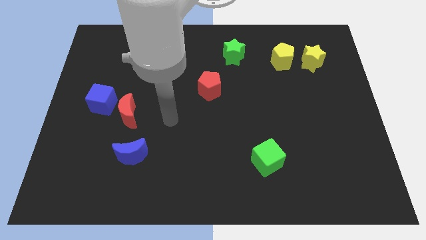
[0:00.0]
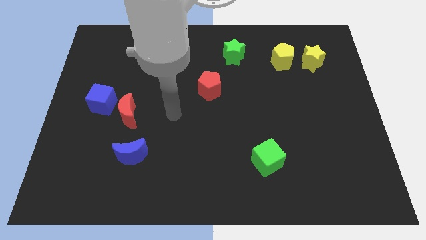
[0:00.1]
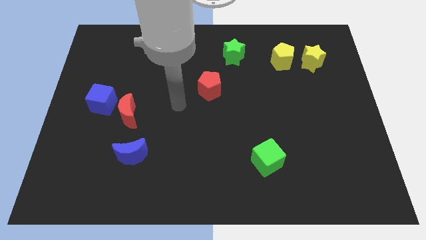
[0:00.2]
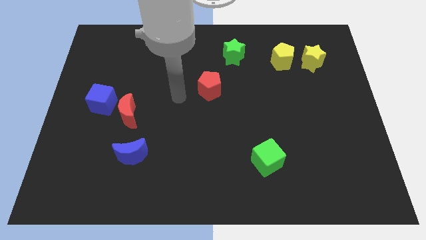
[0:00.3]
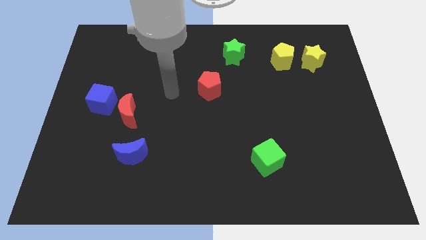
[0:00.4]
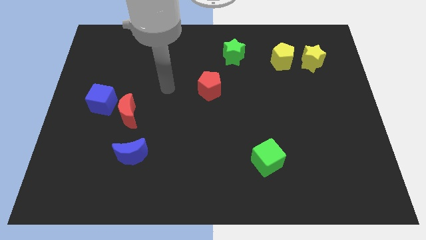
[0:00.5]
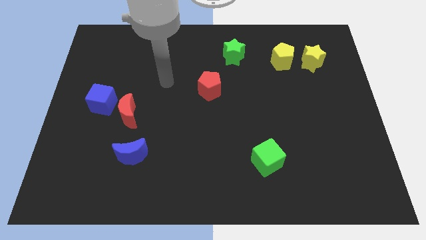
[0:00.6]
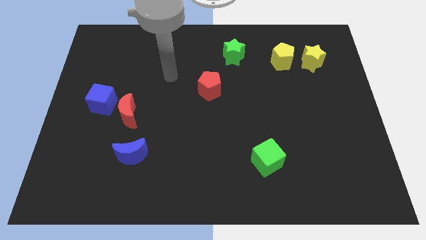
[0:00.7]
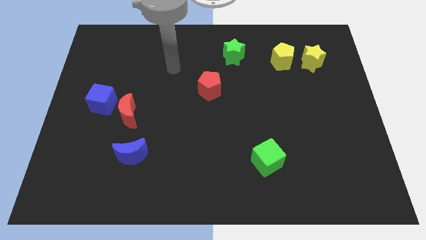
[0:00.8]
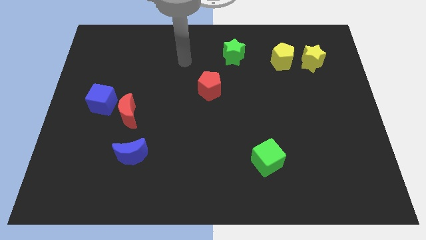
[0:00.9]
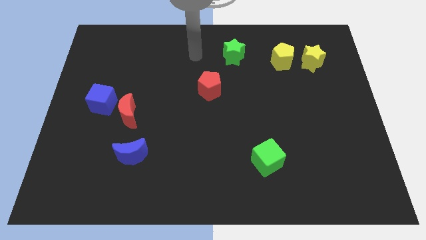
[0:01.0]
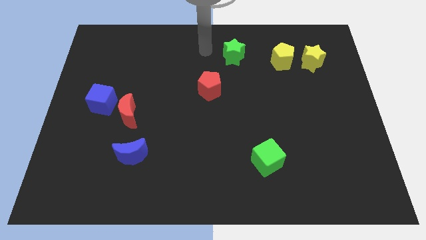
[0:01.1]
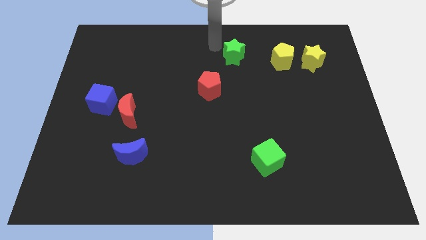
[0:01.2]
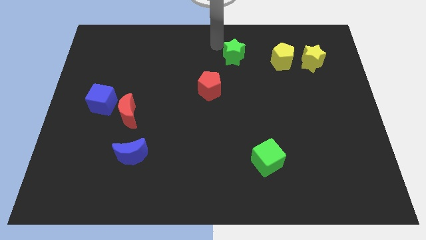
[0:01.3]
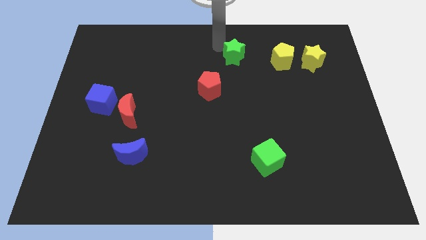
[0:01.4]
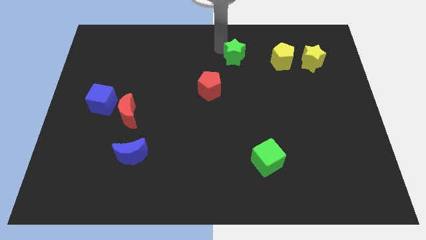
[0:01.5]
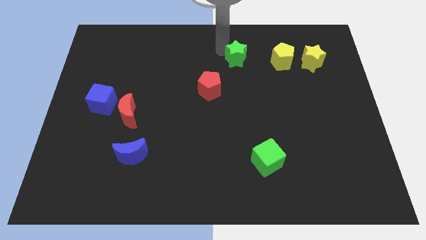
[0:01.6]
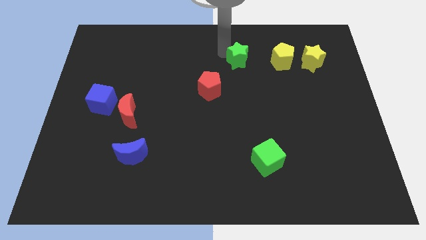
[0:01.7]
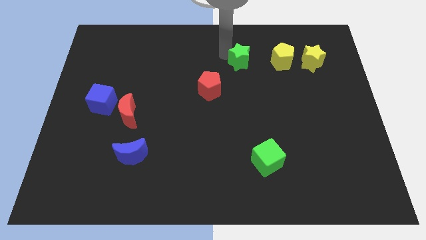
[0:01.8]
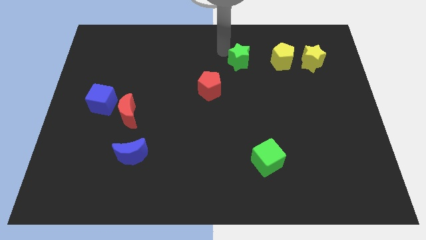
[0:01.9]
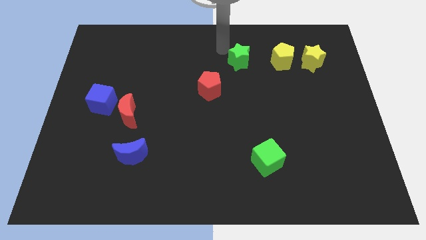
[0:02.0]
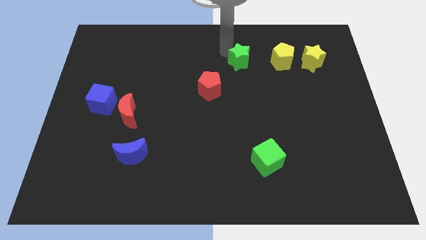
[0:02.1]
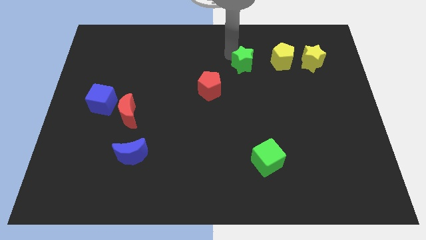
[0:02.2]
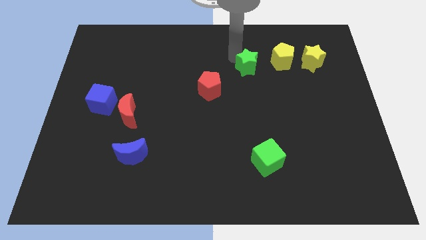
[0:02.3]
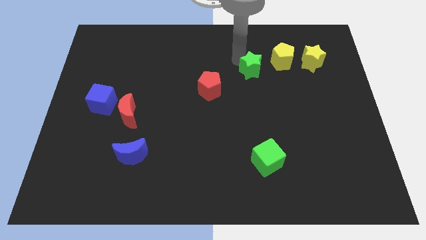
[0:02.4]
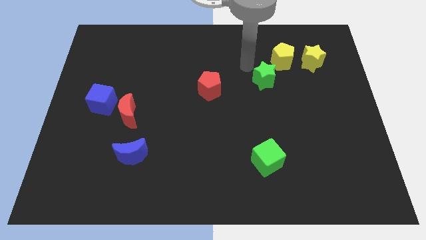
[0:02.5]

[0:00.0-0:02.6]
push the green star a little bit diagonally downwards and right

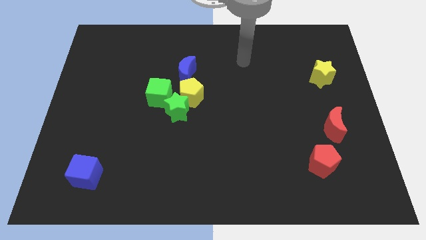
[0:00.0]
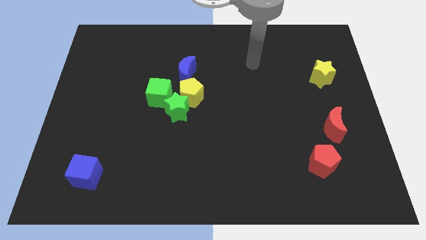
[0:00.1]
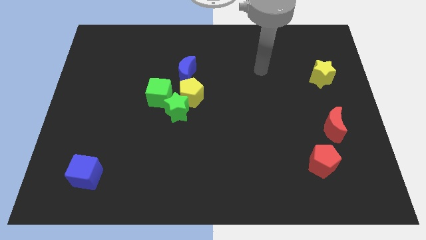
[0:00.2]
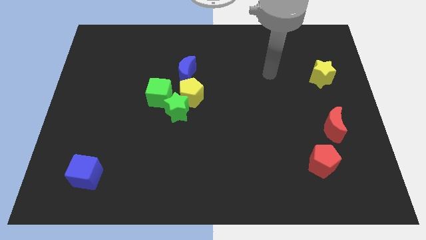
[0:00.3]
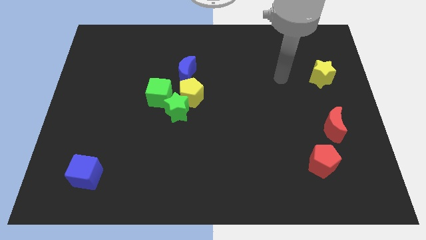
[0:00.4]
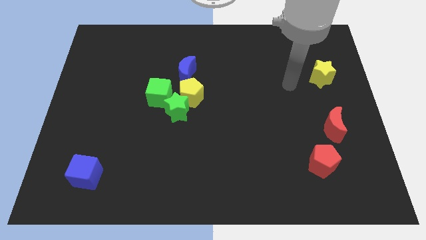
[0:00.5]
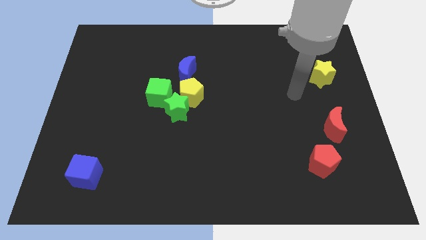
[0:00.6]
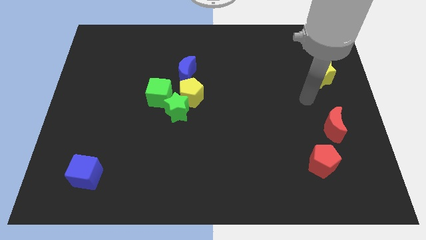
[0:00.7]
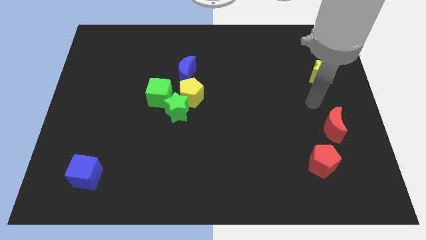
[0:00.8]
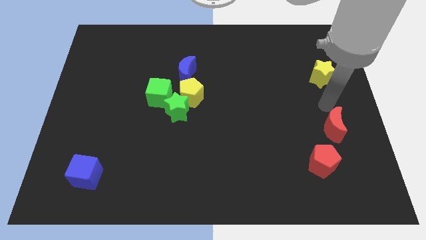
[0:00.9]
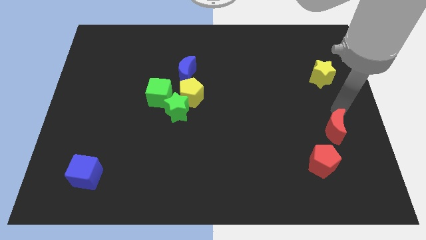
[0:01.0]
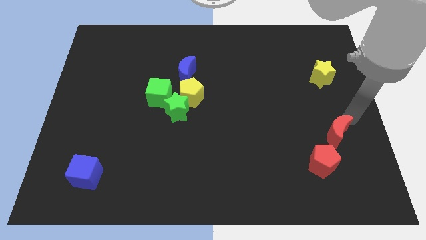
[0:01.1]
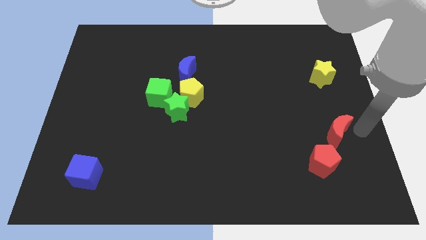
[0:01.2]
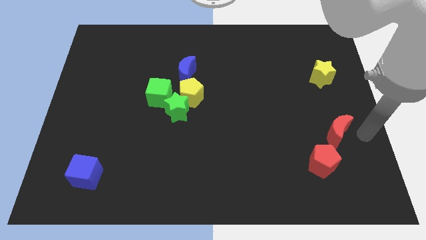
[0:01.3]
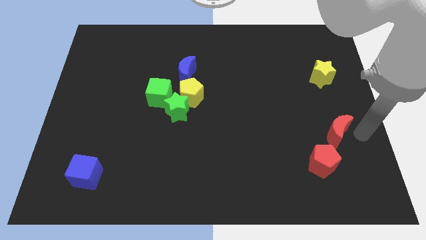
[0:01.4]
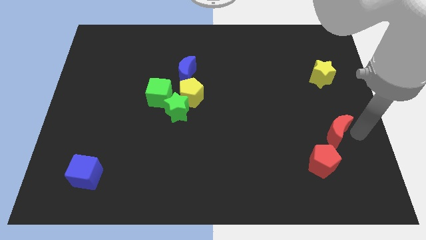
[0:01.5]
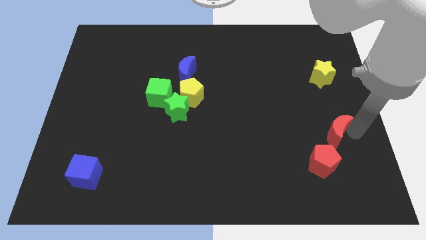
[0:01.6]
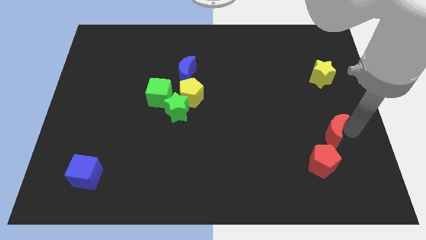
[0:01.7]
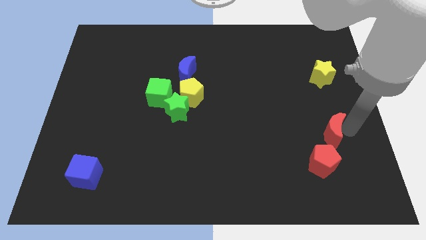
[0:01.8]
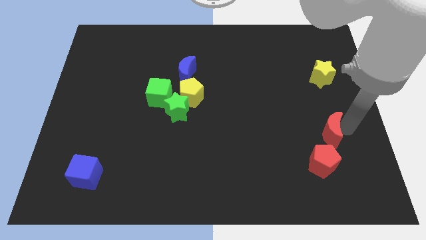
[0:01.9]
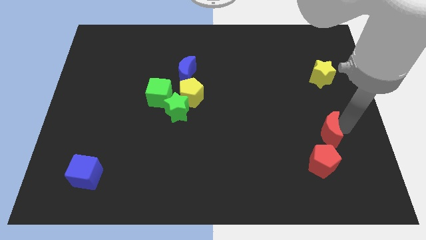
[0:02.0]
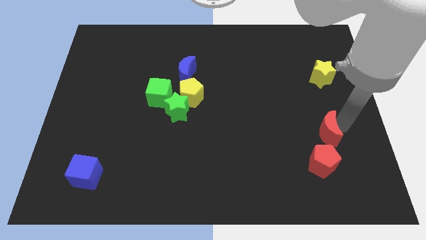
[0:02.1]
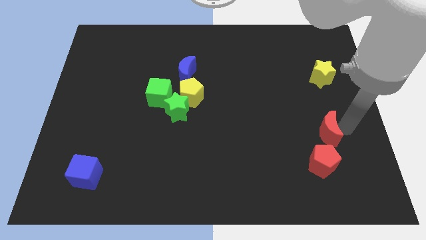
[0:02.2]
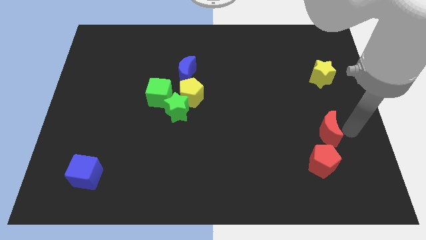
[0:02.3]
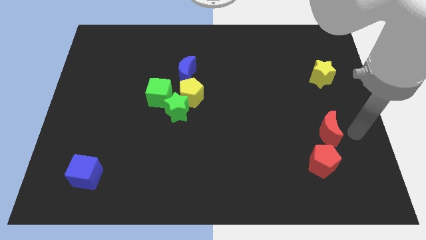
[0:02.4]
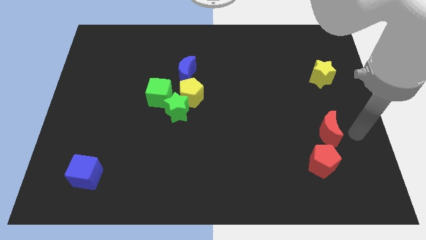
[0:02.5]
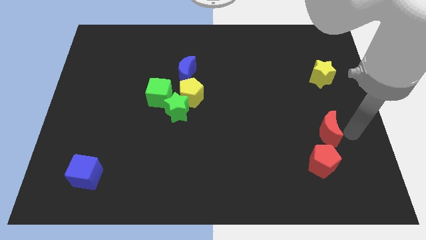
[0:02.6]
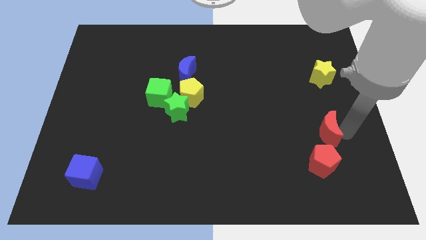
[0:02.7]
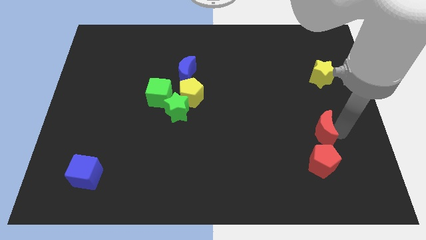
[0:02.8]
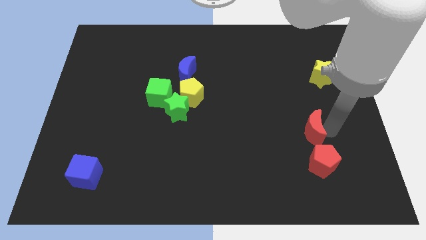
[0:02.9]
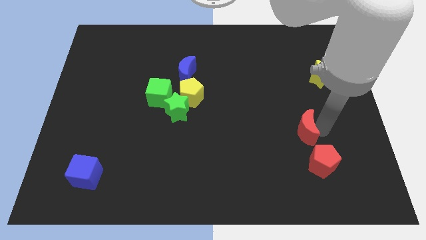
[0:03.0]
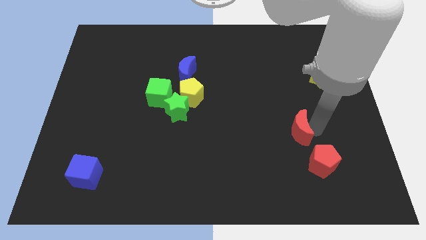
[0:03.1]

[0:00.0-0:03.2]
push the red moon a little bit left

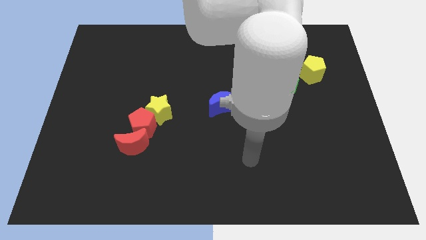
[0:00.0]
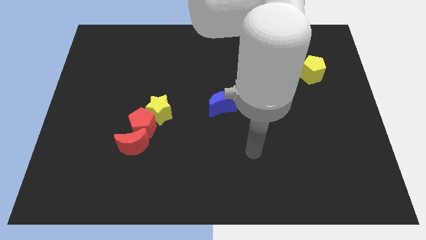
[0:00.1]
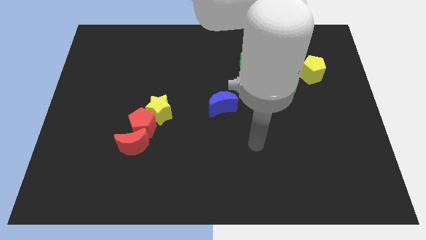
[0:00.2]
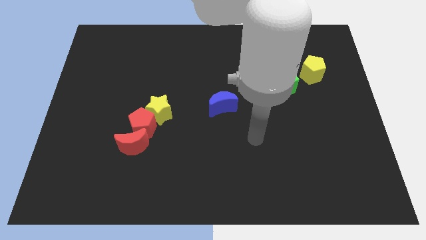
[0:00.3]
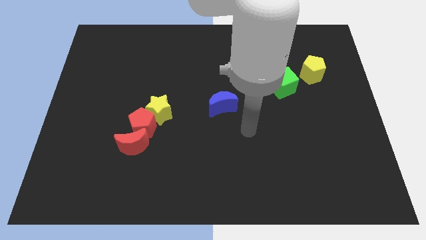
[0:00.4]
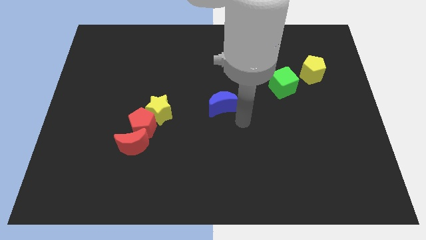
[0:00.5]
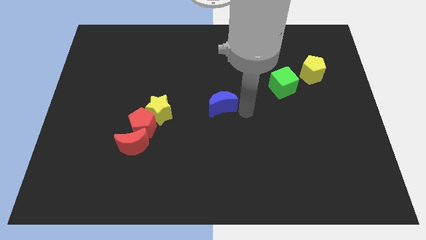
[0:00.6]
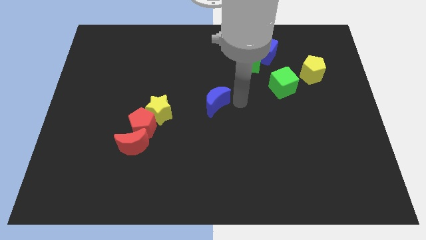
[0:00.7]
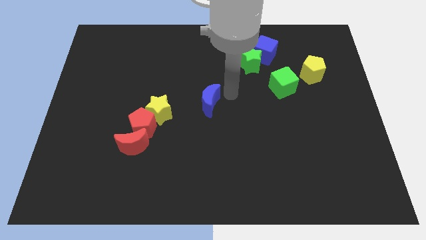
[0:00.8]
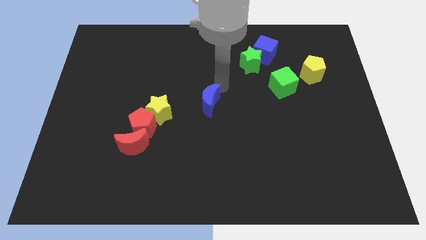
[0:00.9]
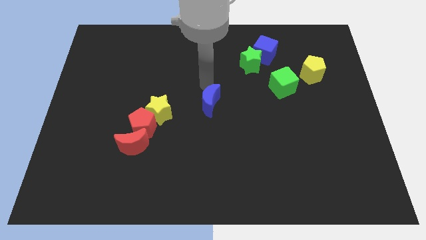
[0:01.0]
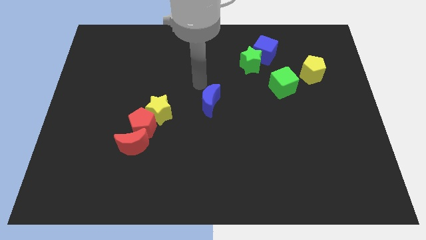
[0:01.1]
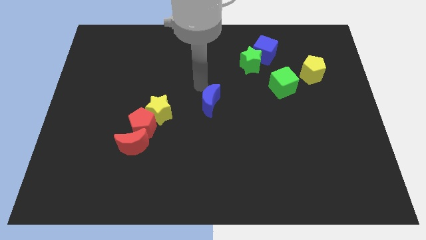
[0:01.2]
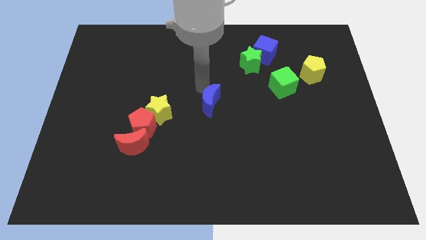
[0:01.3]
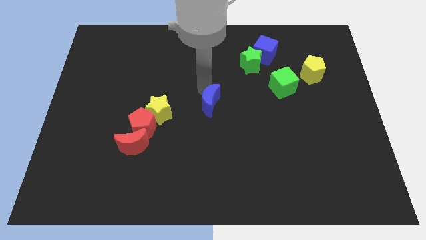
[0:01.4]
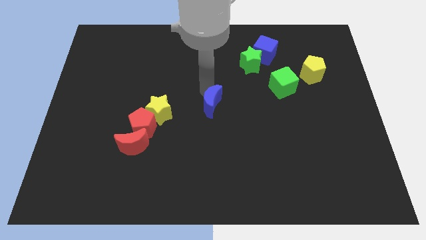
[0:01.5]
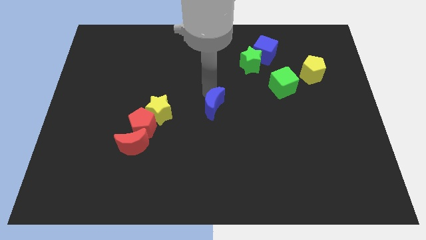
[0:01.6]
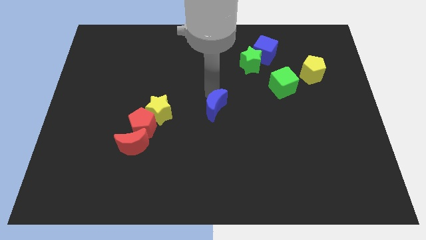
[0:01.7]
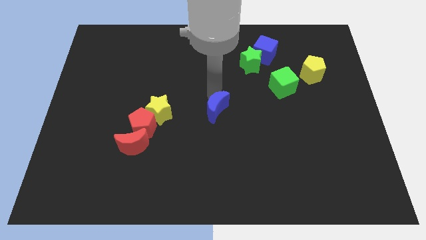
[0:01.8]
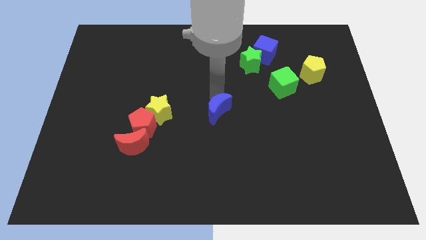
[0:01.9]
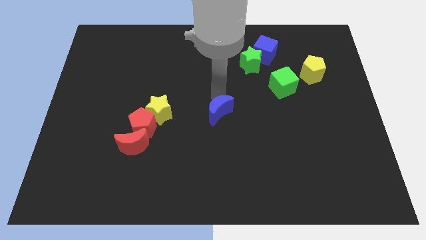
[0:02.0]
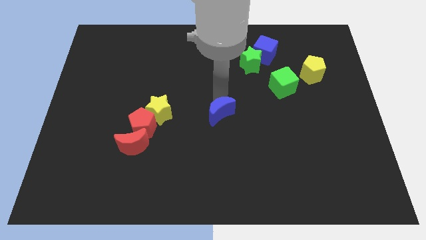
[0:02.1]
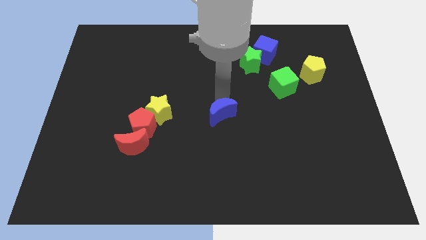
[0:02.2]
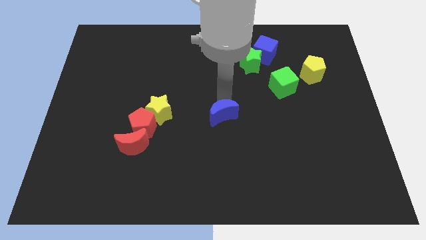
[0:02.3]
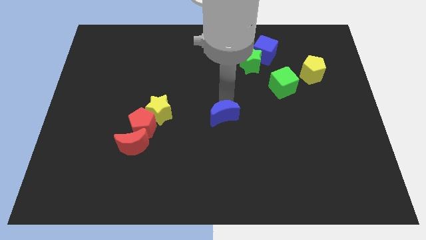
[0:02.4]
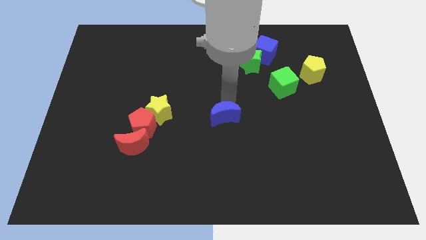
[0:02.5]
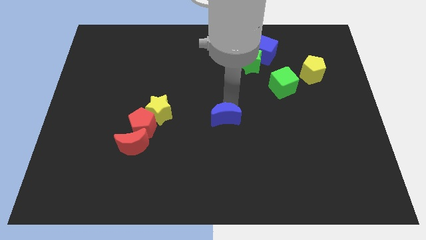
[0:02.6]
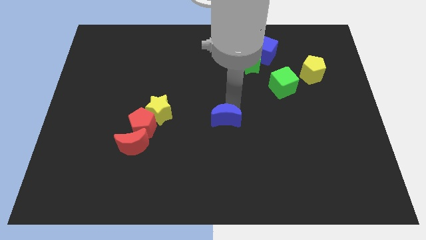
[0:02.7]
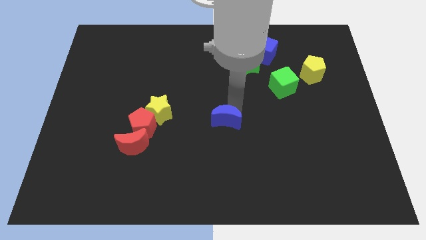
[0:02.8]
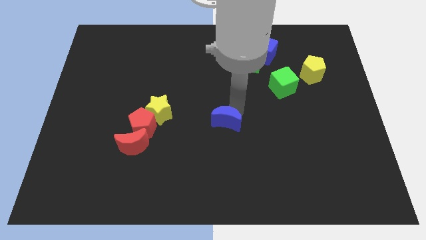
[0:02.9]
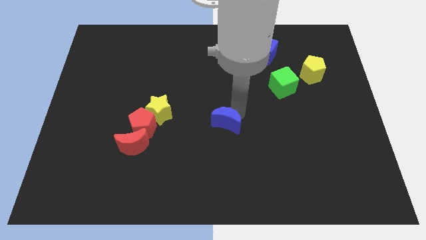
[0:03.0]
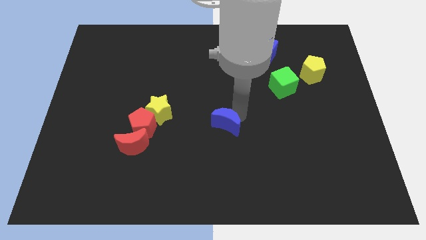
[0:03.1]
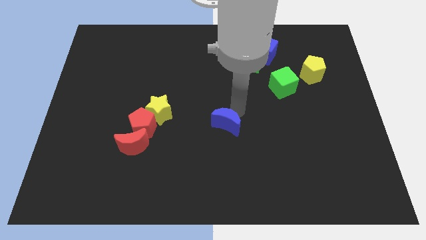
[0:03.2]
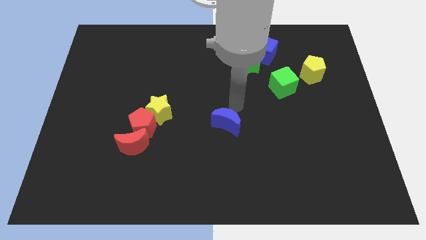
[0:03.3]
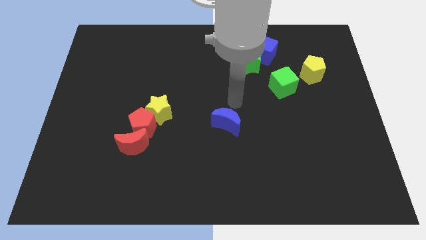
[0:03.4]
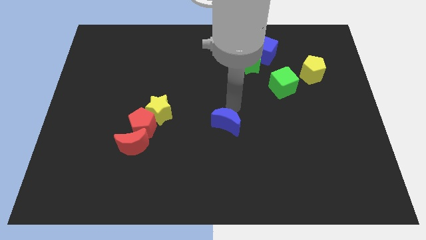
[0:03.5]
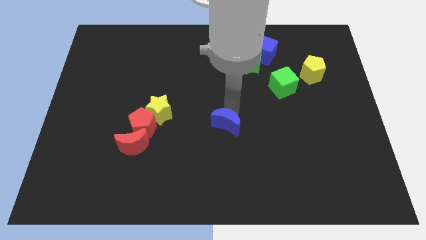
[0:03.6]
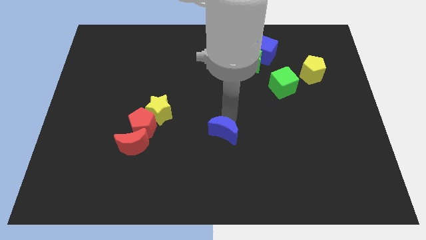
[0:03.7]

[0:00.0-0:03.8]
slide the blue moon downwards a bit
